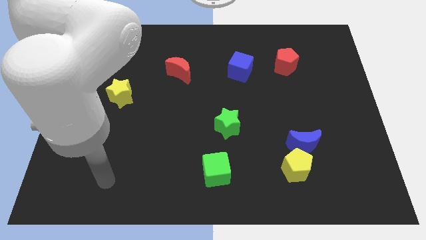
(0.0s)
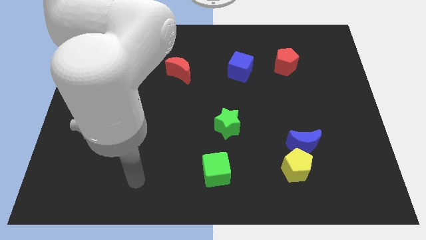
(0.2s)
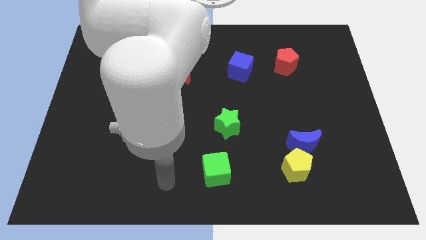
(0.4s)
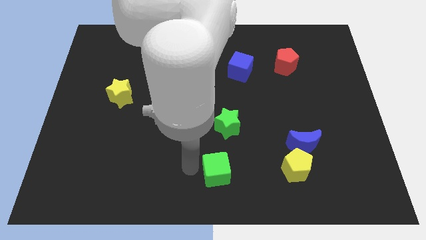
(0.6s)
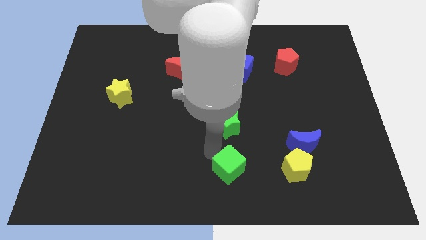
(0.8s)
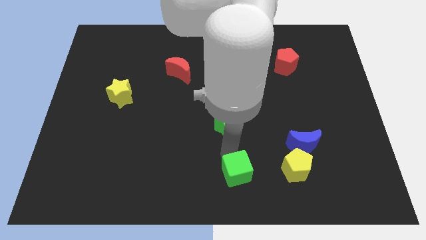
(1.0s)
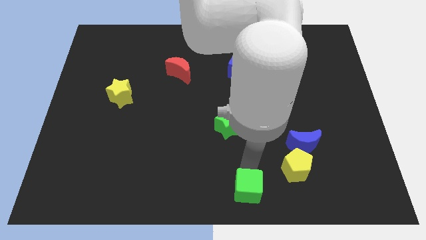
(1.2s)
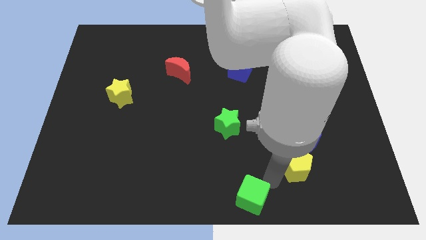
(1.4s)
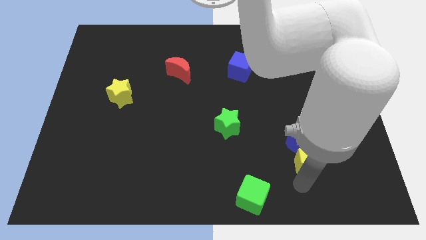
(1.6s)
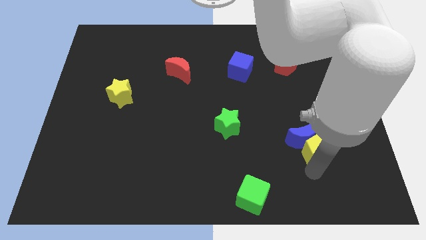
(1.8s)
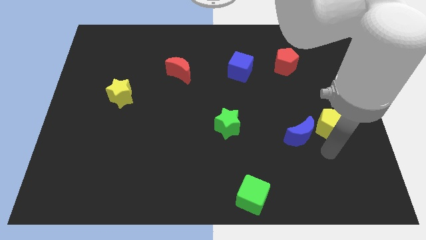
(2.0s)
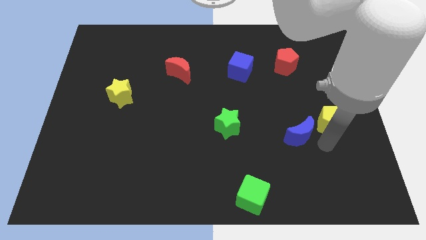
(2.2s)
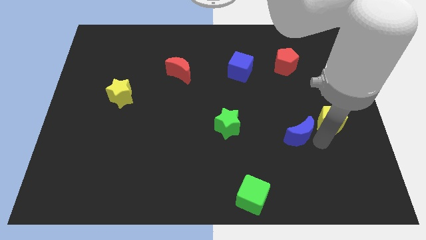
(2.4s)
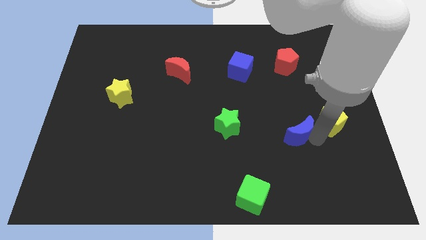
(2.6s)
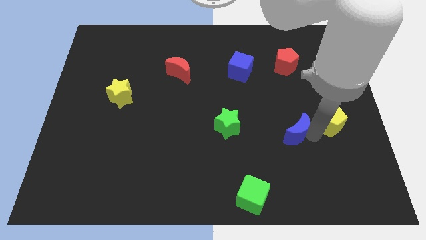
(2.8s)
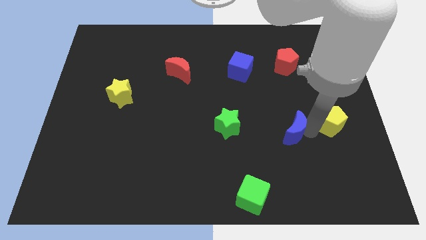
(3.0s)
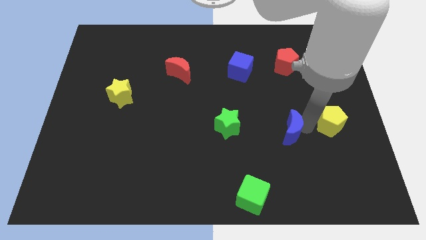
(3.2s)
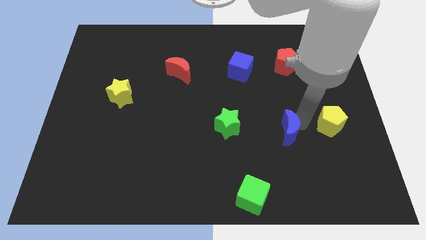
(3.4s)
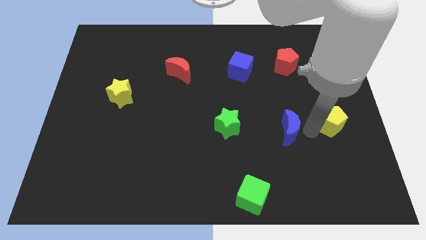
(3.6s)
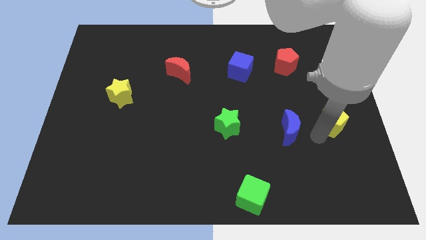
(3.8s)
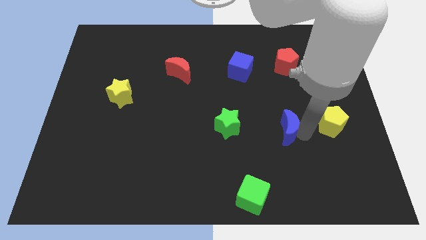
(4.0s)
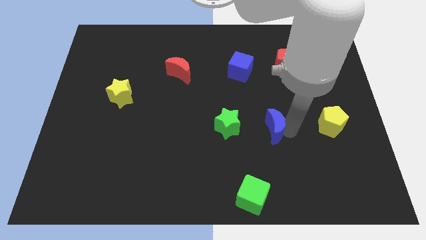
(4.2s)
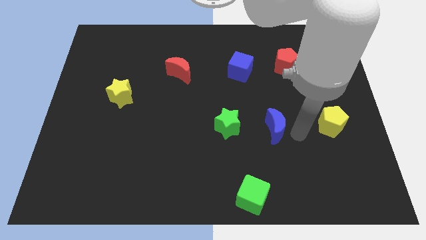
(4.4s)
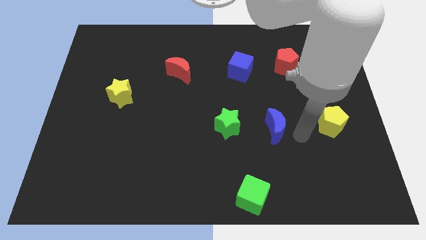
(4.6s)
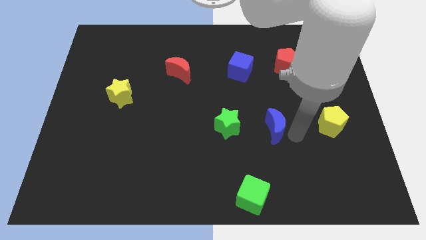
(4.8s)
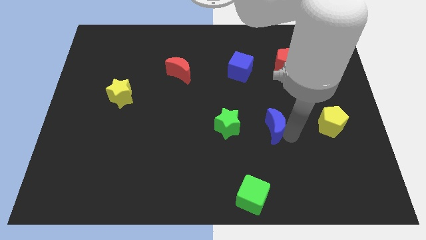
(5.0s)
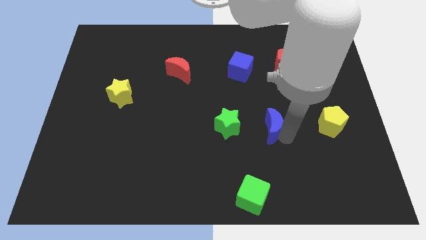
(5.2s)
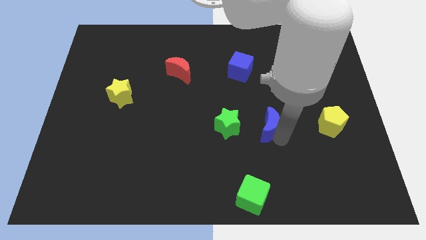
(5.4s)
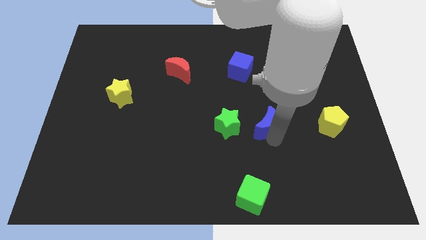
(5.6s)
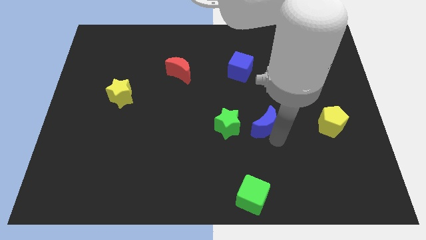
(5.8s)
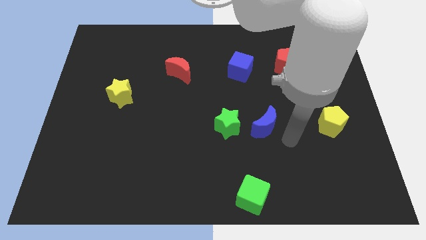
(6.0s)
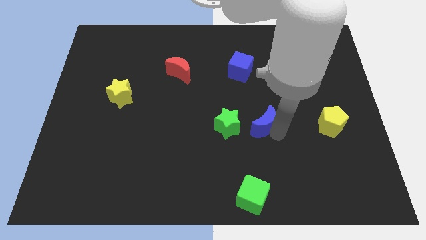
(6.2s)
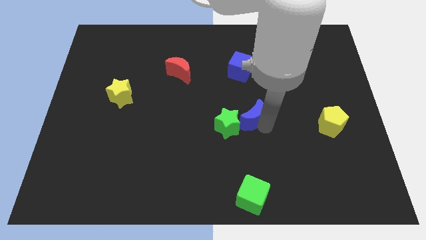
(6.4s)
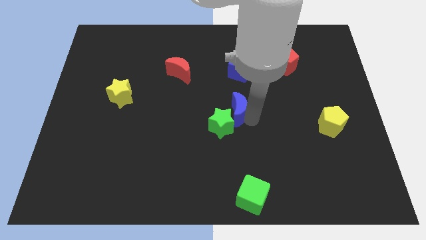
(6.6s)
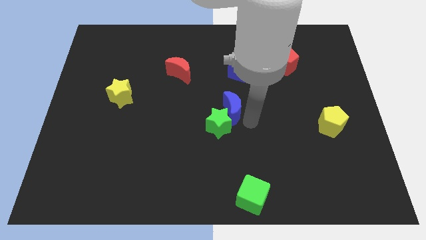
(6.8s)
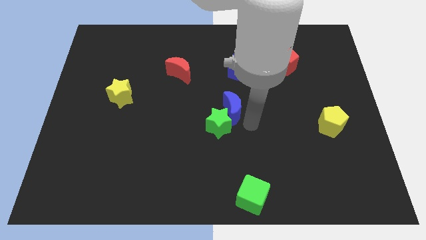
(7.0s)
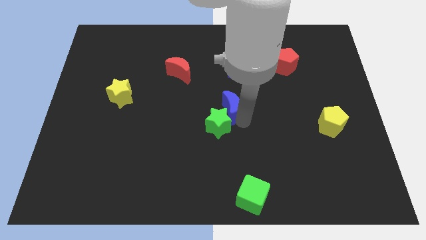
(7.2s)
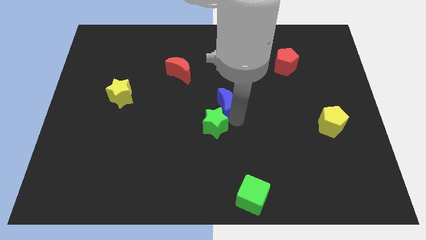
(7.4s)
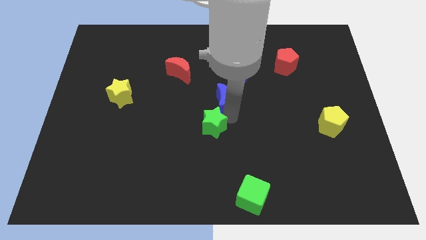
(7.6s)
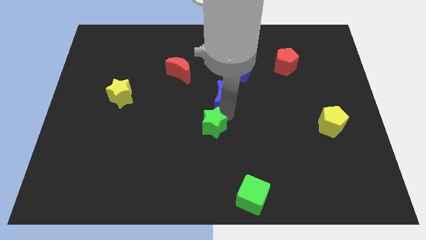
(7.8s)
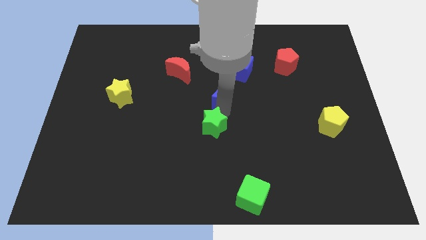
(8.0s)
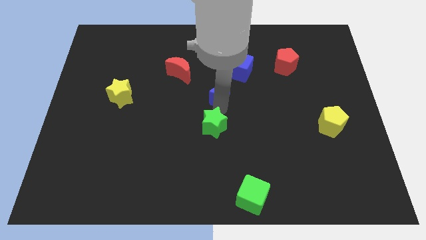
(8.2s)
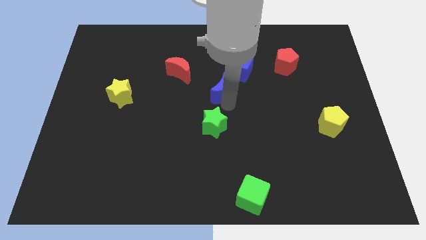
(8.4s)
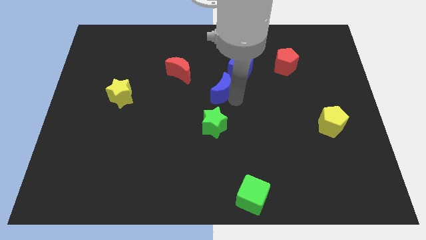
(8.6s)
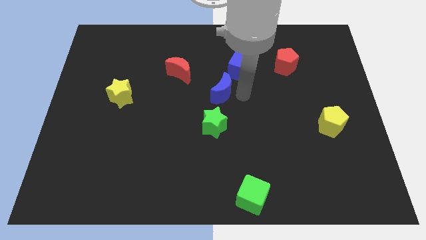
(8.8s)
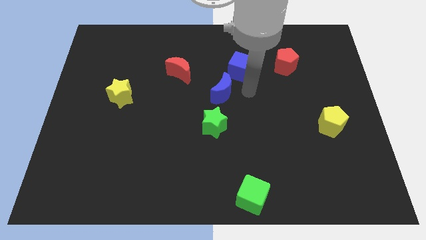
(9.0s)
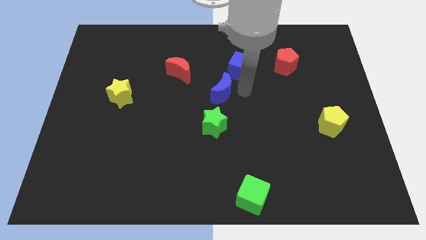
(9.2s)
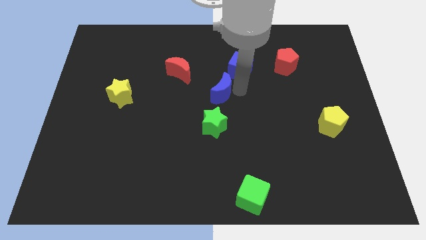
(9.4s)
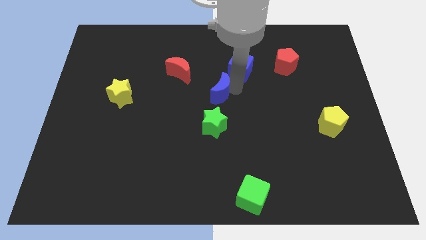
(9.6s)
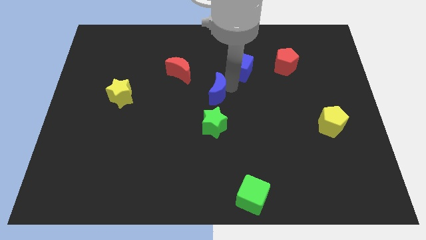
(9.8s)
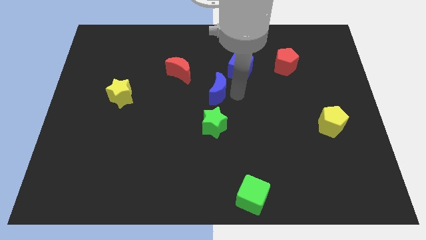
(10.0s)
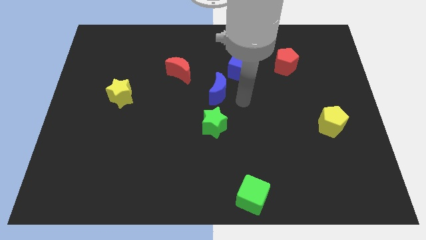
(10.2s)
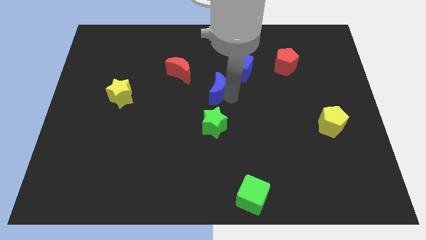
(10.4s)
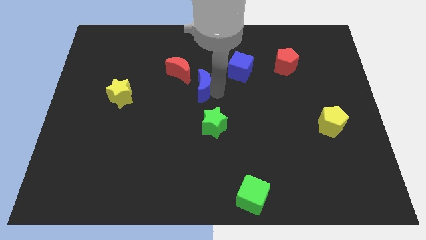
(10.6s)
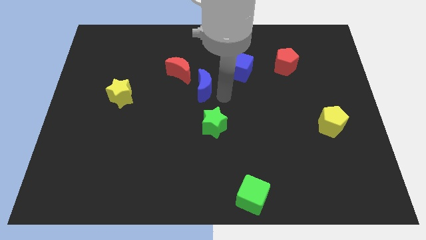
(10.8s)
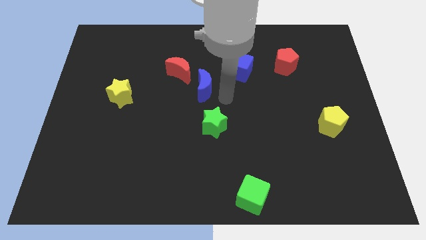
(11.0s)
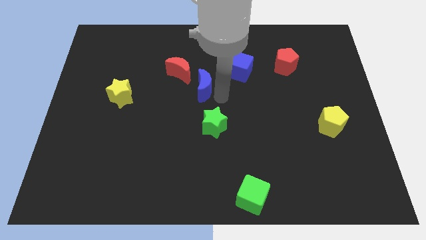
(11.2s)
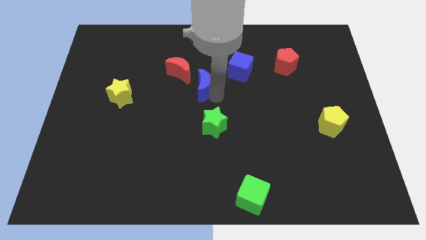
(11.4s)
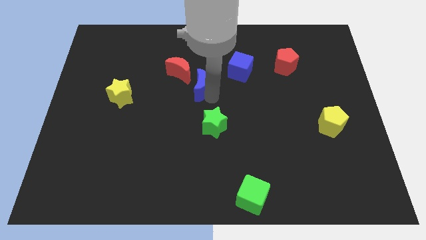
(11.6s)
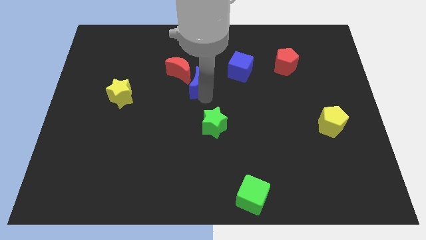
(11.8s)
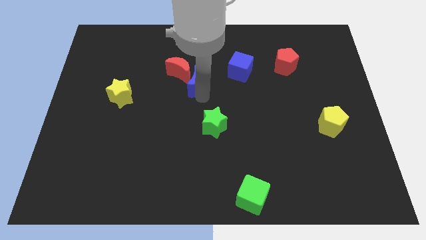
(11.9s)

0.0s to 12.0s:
slide the blue moon towards the red moon

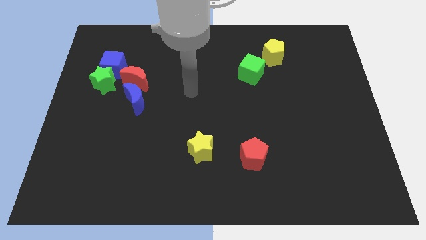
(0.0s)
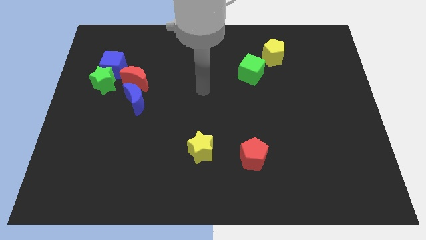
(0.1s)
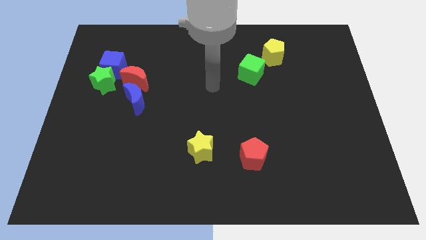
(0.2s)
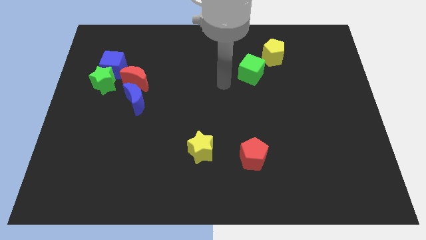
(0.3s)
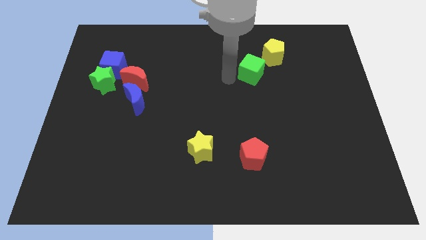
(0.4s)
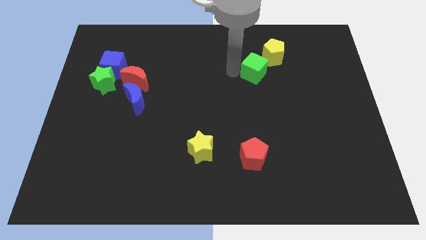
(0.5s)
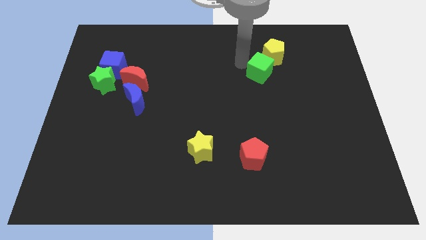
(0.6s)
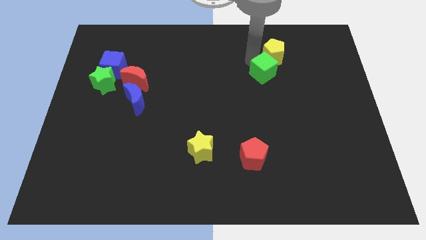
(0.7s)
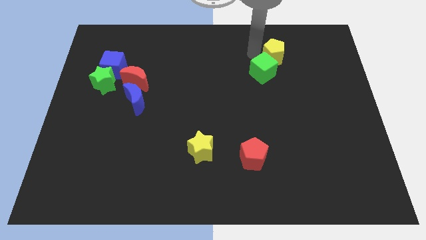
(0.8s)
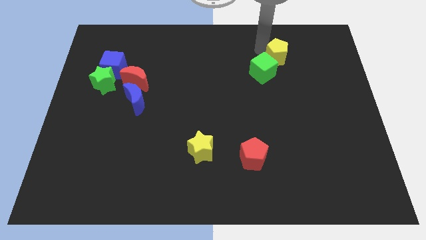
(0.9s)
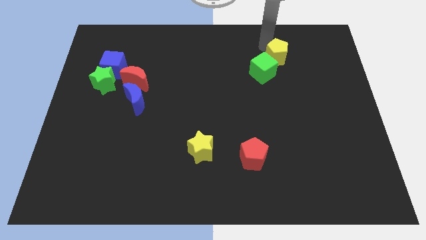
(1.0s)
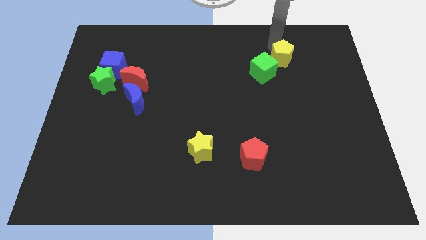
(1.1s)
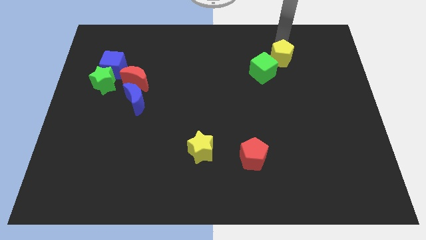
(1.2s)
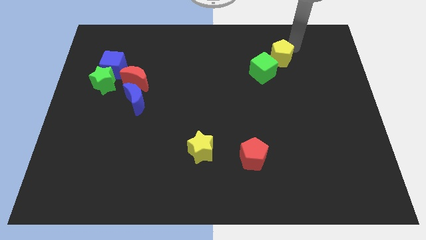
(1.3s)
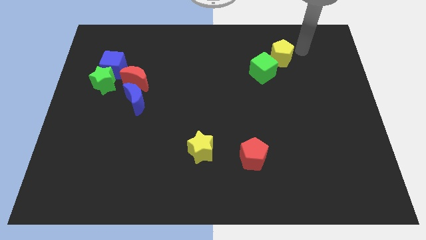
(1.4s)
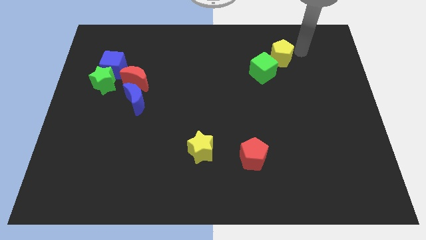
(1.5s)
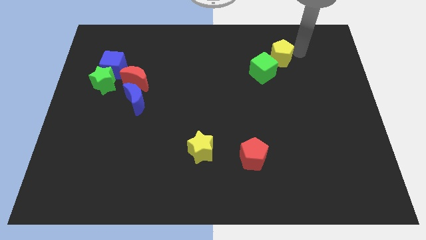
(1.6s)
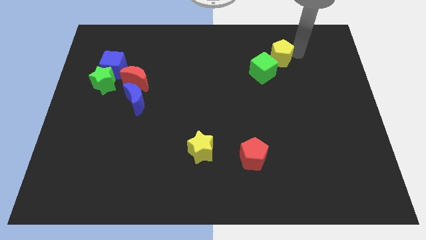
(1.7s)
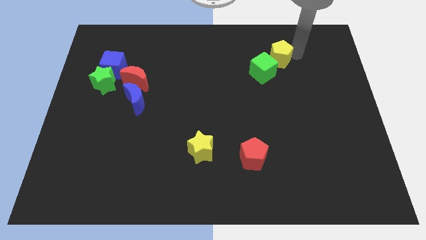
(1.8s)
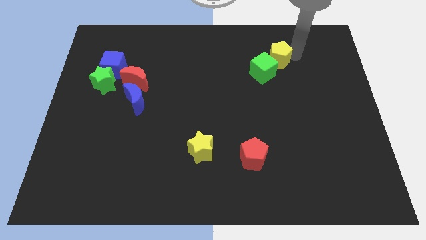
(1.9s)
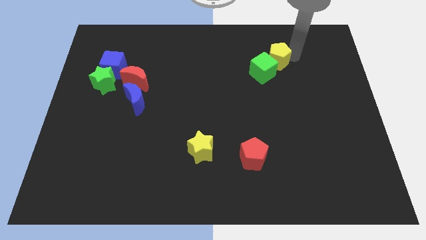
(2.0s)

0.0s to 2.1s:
move the yellow pentagon to the green cube
